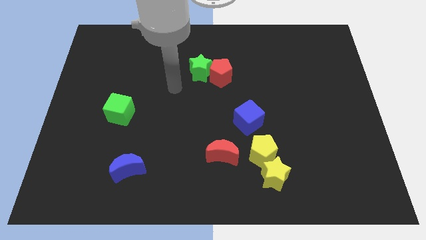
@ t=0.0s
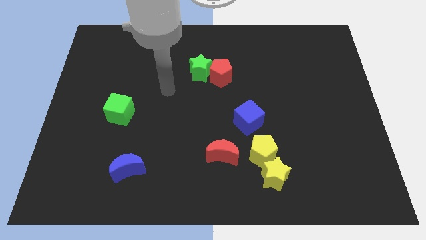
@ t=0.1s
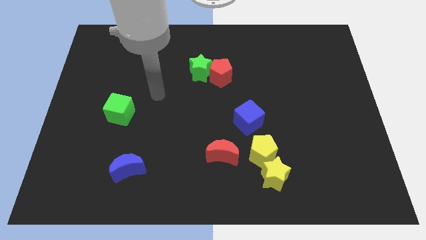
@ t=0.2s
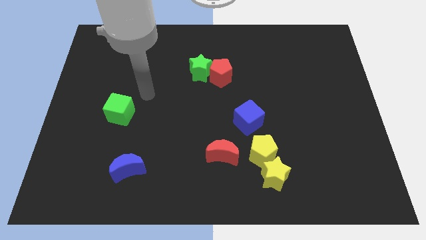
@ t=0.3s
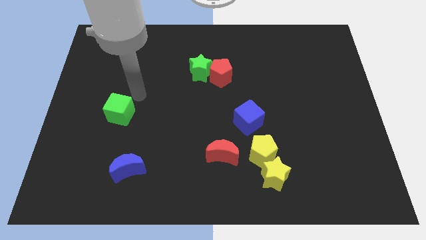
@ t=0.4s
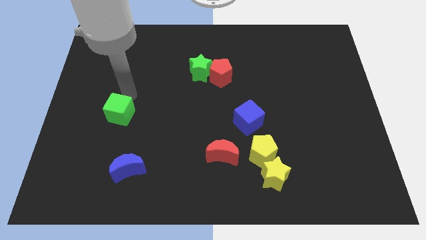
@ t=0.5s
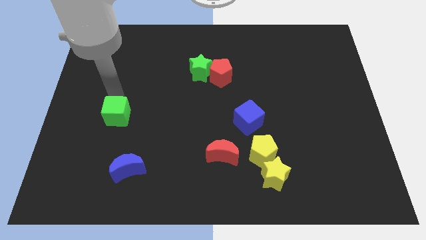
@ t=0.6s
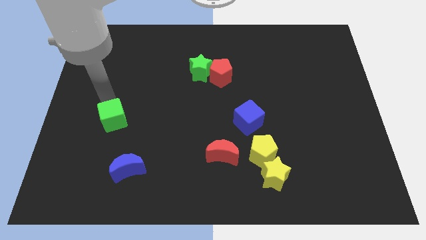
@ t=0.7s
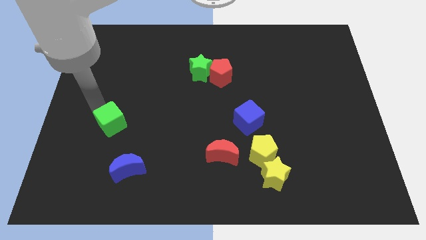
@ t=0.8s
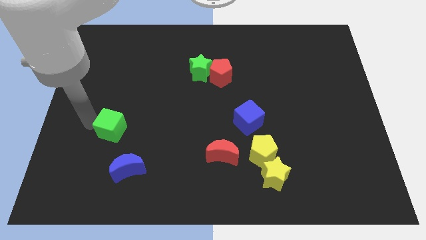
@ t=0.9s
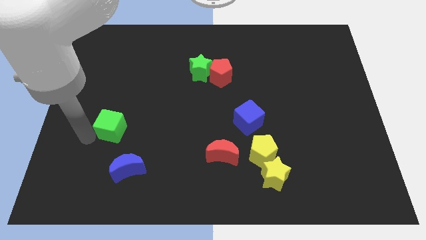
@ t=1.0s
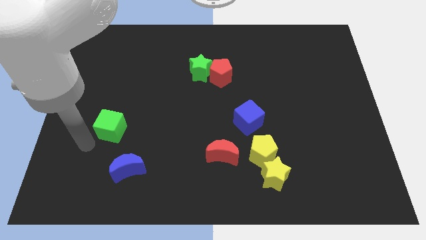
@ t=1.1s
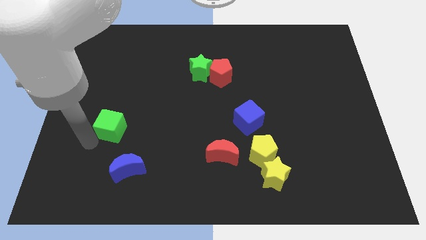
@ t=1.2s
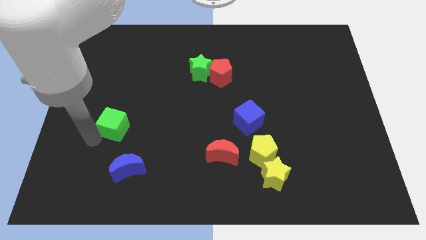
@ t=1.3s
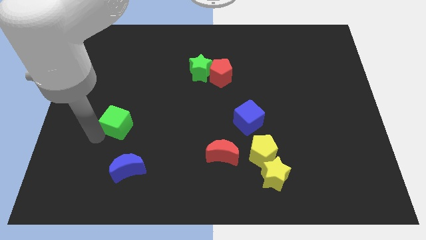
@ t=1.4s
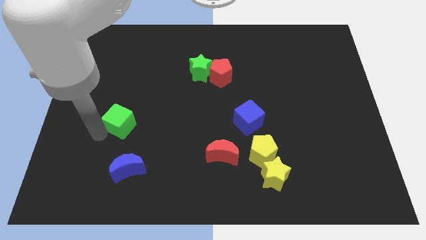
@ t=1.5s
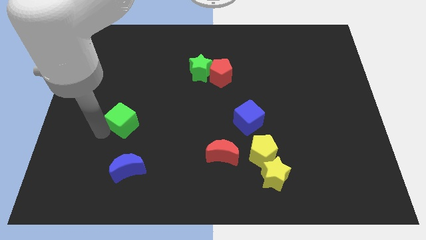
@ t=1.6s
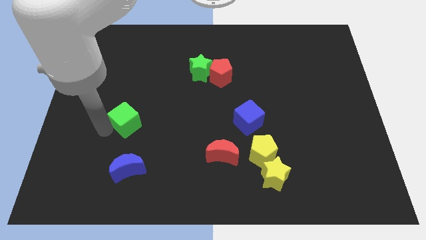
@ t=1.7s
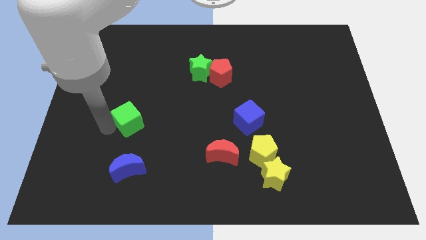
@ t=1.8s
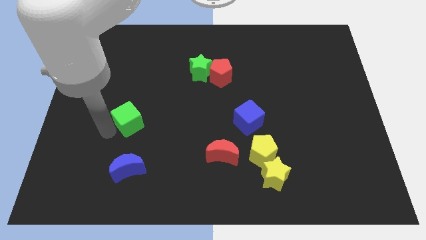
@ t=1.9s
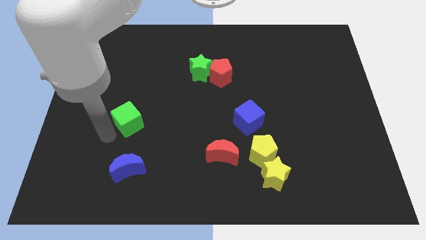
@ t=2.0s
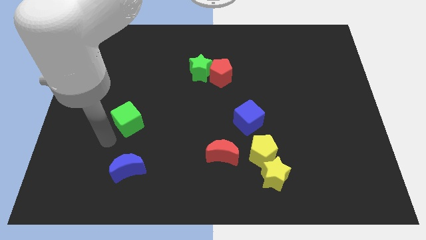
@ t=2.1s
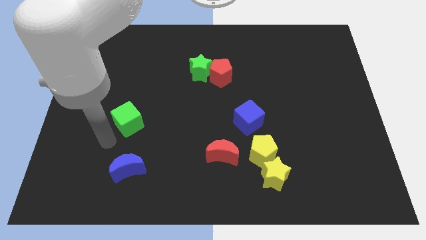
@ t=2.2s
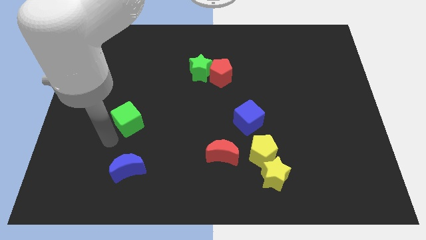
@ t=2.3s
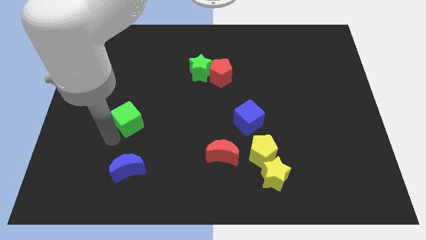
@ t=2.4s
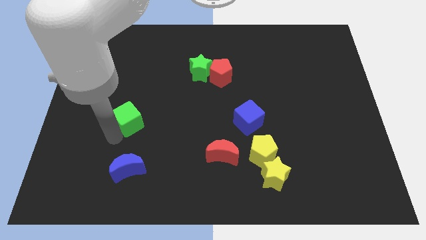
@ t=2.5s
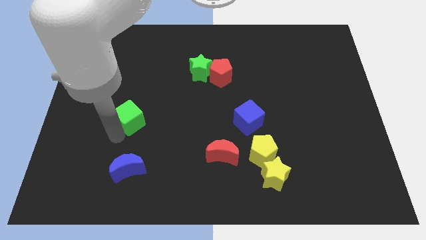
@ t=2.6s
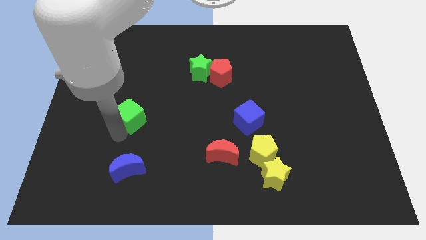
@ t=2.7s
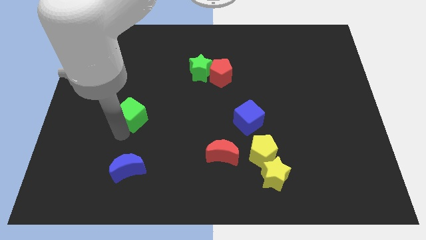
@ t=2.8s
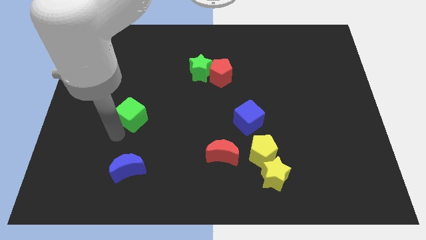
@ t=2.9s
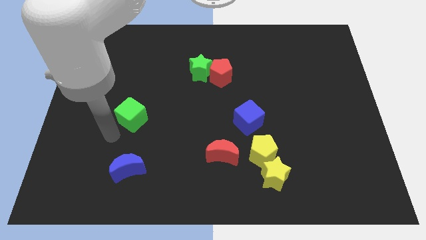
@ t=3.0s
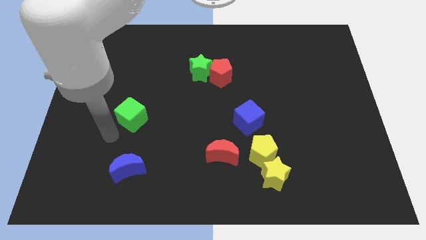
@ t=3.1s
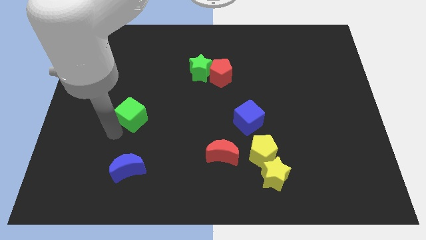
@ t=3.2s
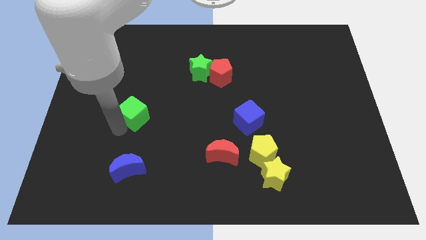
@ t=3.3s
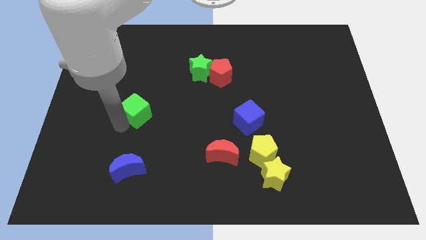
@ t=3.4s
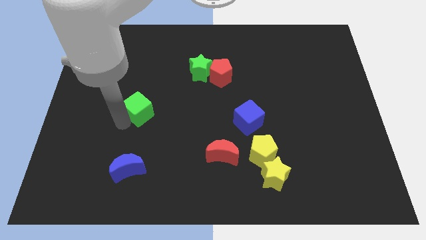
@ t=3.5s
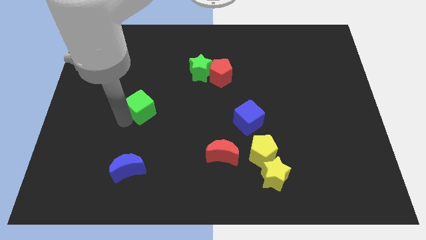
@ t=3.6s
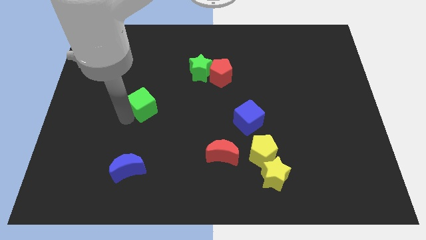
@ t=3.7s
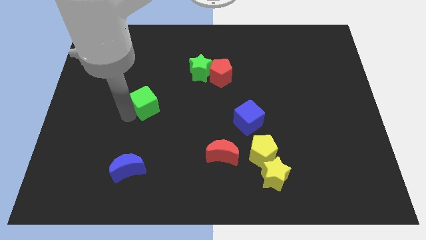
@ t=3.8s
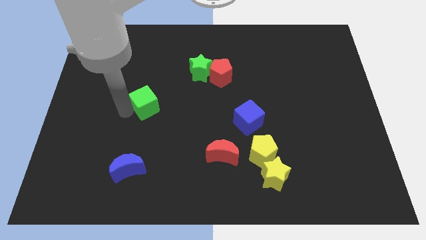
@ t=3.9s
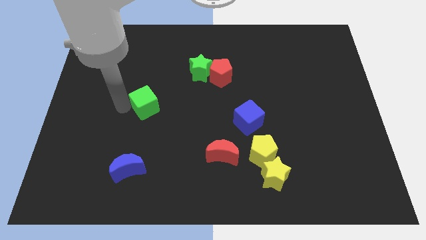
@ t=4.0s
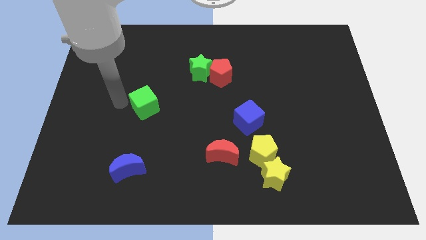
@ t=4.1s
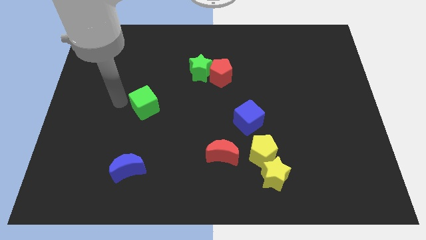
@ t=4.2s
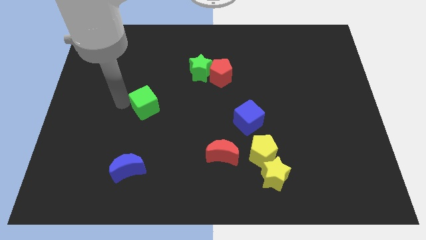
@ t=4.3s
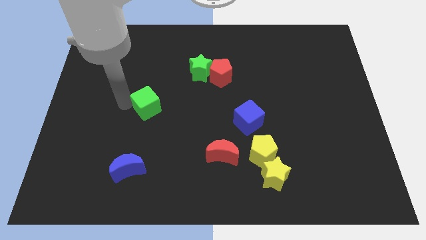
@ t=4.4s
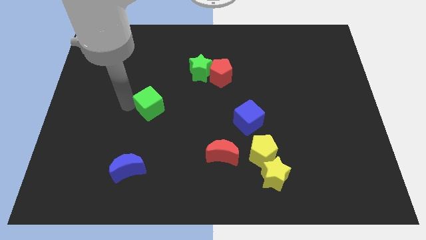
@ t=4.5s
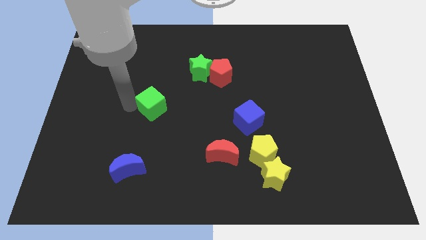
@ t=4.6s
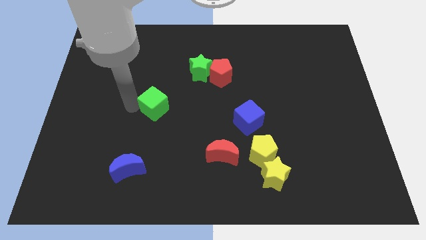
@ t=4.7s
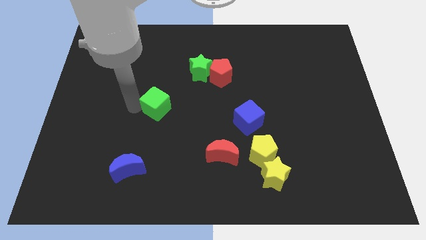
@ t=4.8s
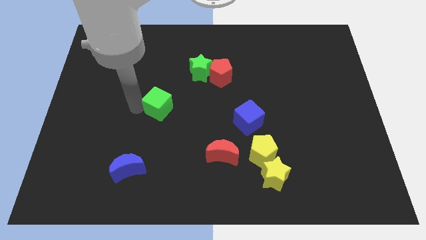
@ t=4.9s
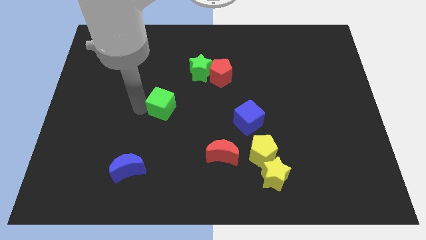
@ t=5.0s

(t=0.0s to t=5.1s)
move the green cube to the middle of the board

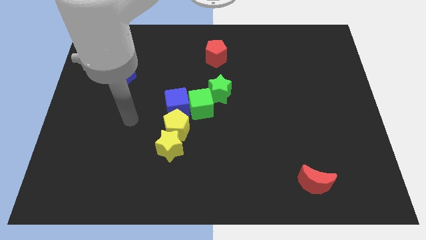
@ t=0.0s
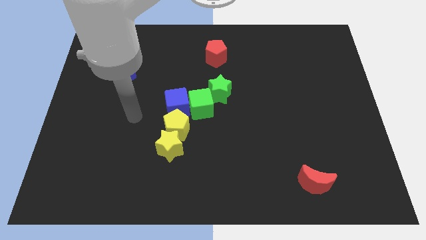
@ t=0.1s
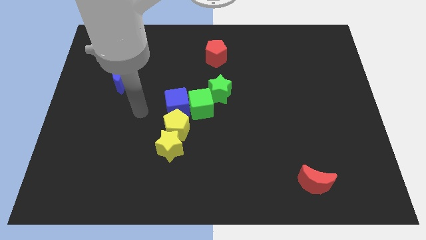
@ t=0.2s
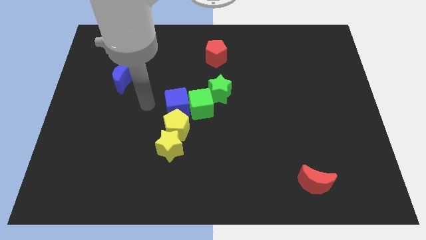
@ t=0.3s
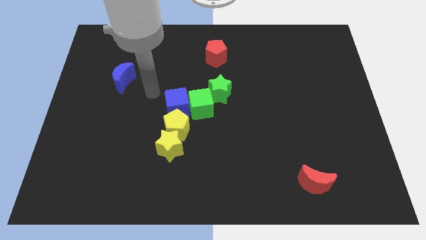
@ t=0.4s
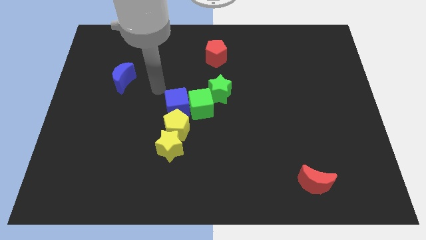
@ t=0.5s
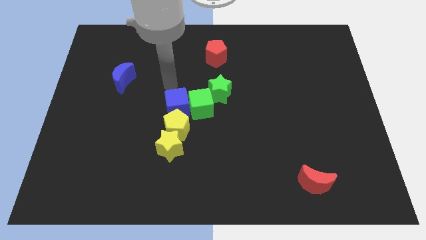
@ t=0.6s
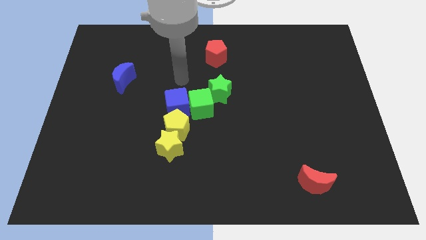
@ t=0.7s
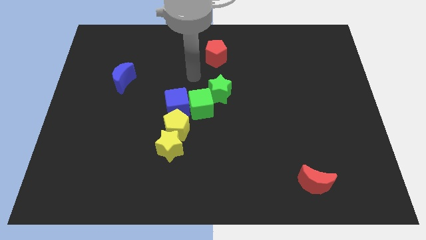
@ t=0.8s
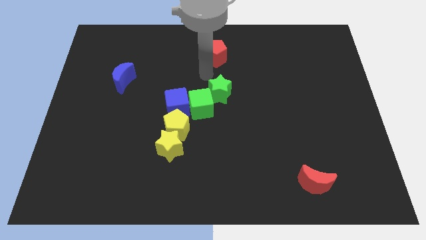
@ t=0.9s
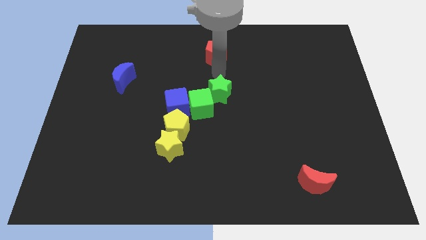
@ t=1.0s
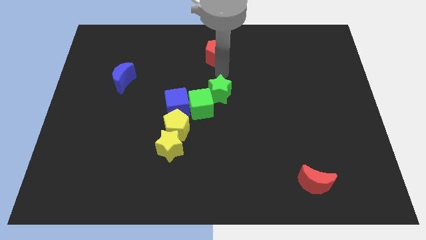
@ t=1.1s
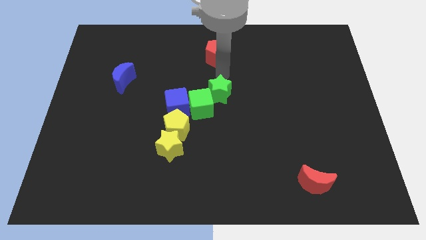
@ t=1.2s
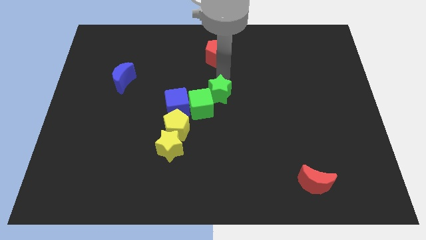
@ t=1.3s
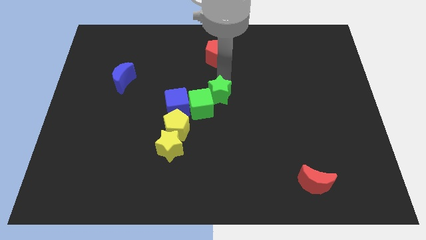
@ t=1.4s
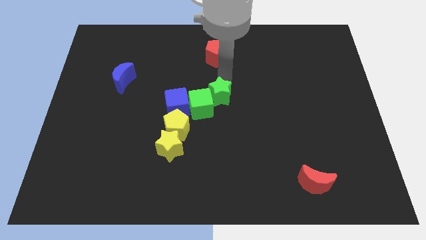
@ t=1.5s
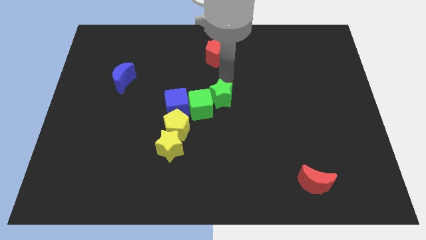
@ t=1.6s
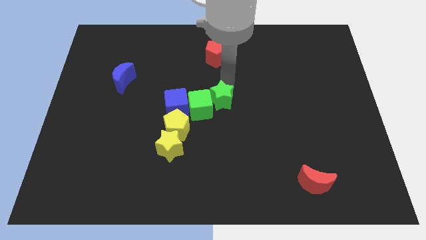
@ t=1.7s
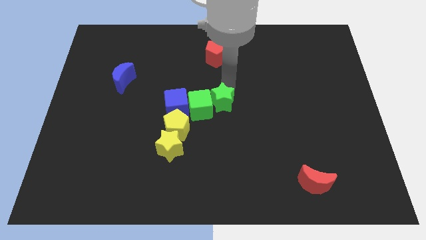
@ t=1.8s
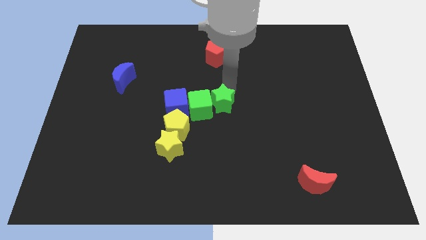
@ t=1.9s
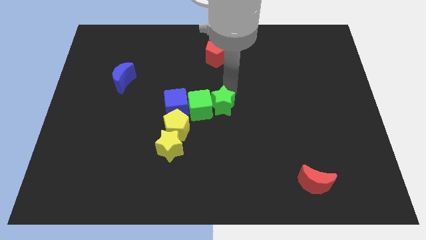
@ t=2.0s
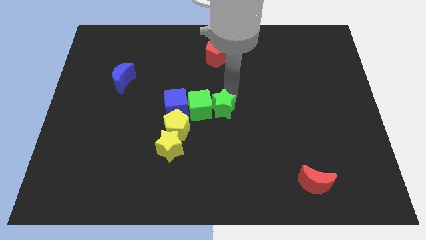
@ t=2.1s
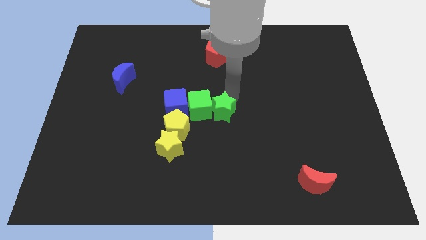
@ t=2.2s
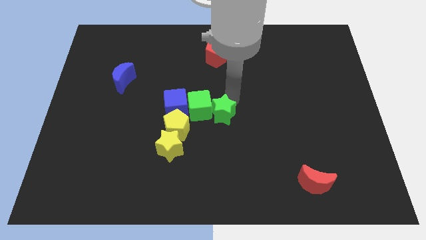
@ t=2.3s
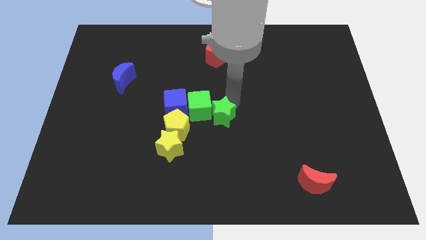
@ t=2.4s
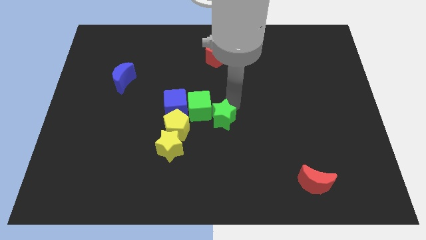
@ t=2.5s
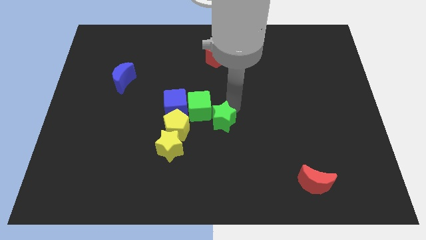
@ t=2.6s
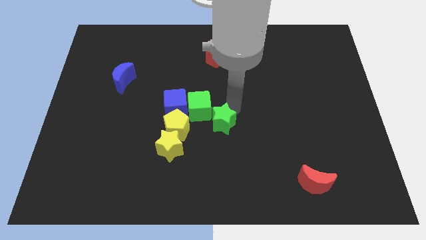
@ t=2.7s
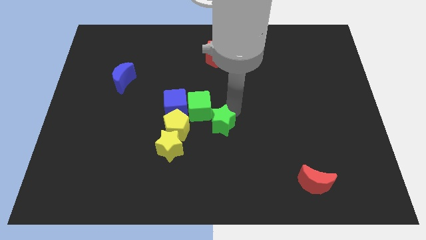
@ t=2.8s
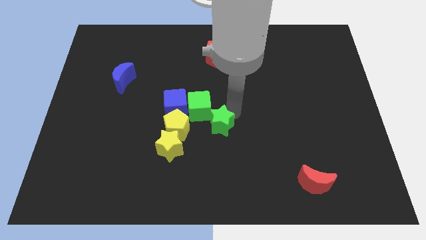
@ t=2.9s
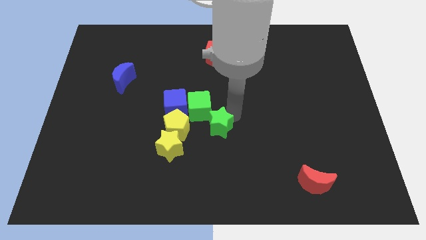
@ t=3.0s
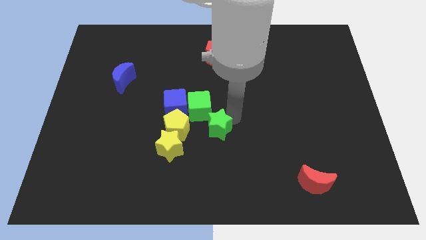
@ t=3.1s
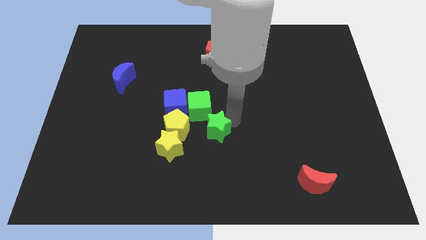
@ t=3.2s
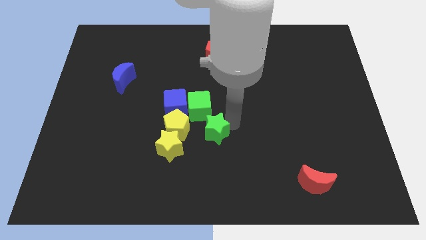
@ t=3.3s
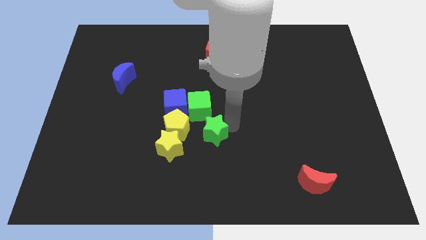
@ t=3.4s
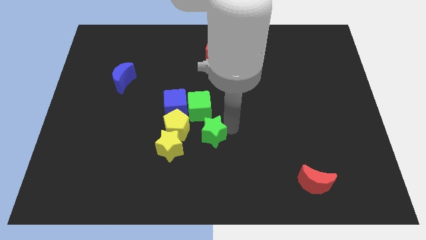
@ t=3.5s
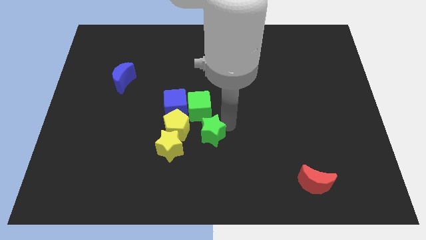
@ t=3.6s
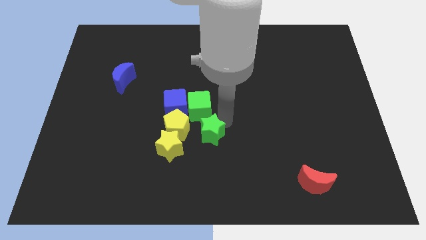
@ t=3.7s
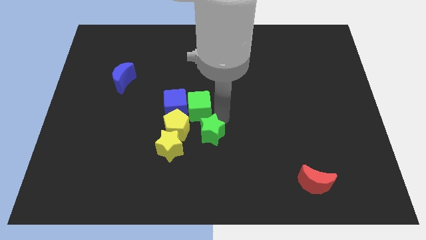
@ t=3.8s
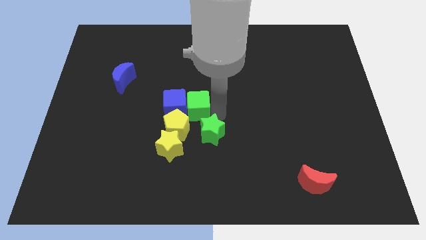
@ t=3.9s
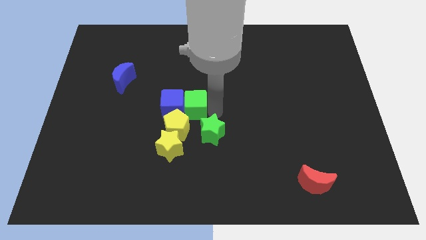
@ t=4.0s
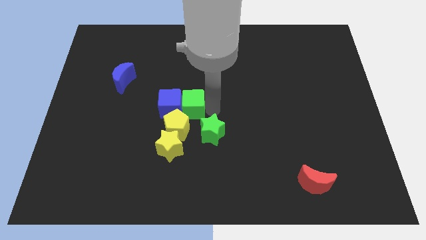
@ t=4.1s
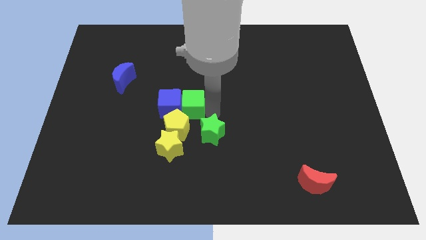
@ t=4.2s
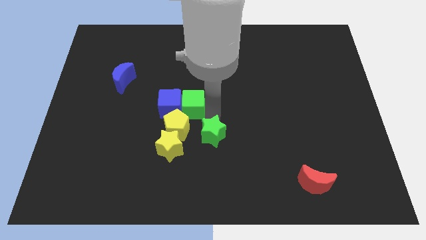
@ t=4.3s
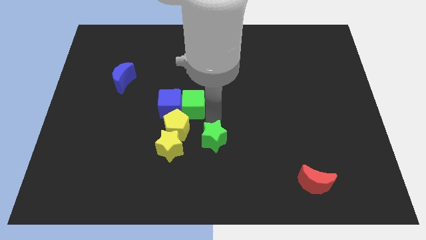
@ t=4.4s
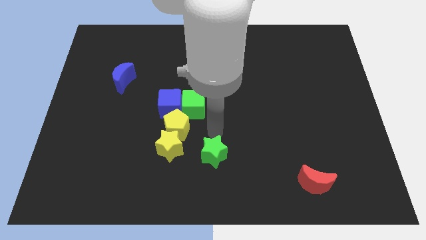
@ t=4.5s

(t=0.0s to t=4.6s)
put the green star to the bottom side
